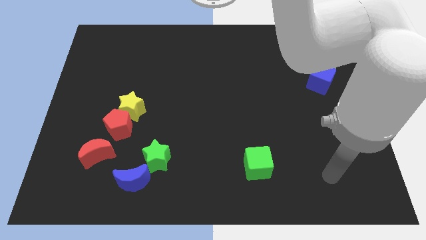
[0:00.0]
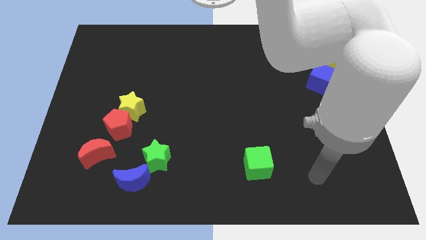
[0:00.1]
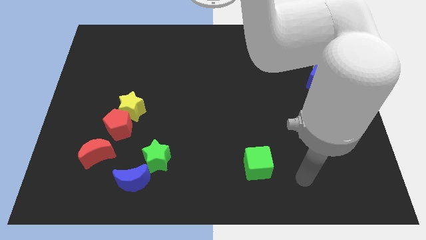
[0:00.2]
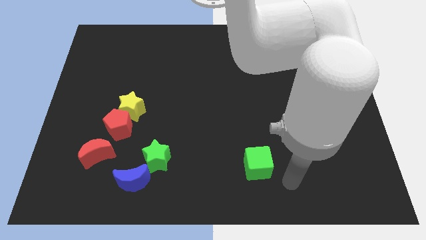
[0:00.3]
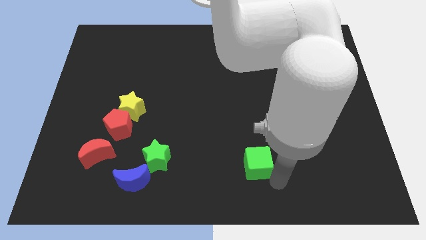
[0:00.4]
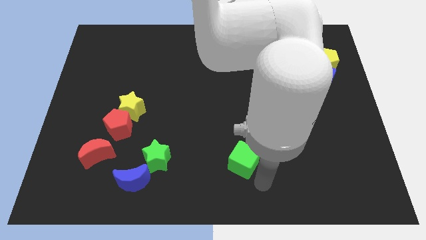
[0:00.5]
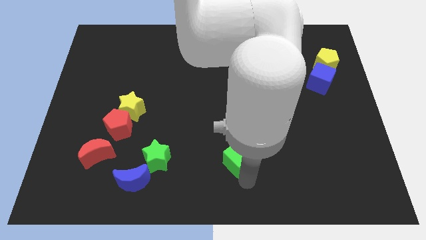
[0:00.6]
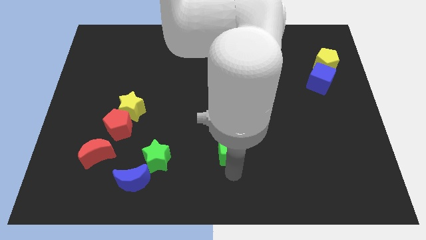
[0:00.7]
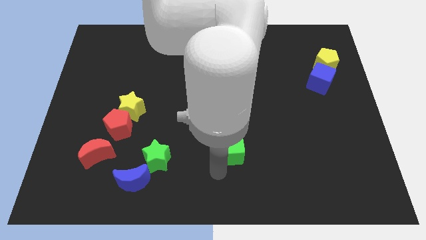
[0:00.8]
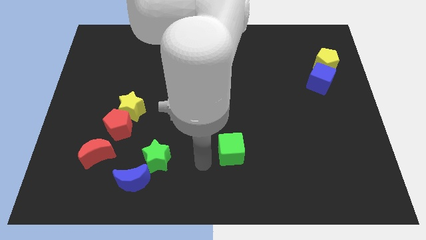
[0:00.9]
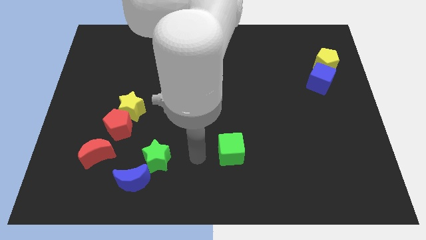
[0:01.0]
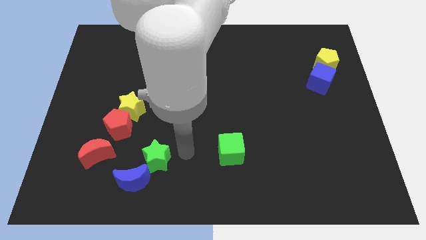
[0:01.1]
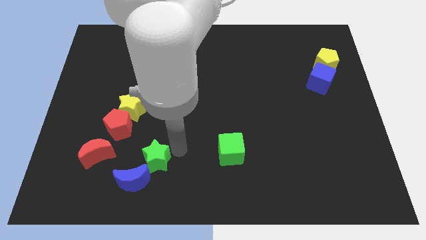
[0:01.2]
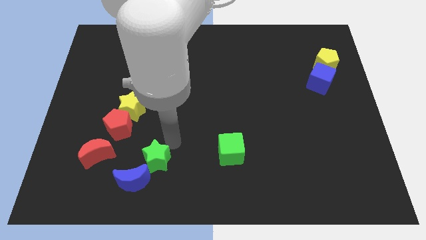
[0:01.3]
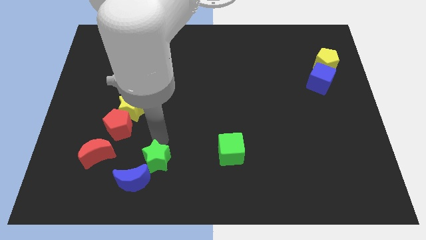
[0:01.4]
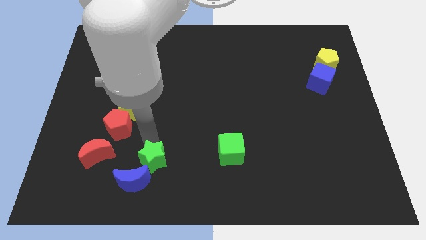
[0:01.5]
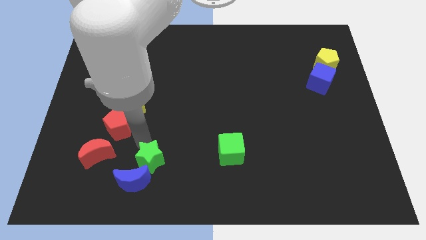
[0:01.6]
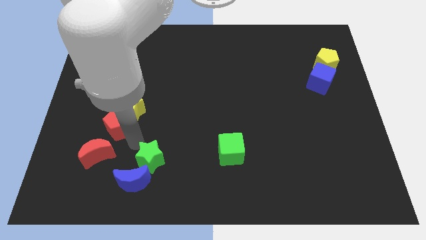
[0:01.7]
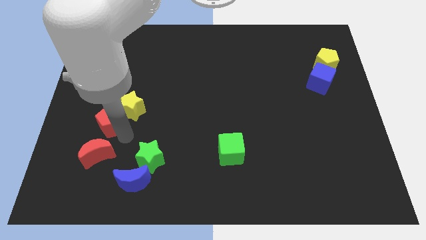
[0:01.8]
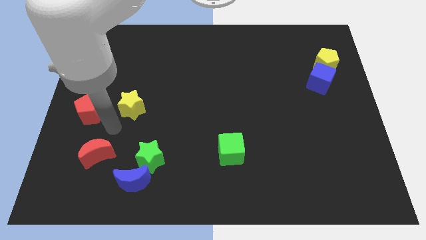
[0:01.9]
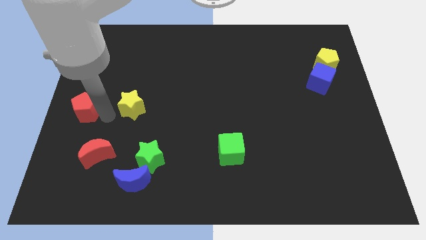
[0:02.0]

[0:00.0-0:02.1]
separate the yellow star from the red pentagon

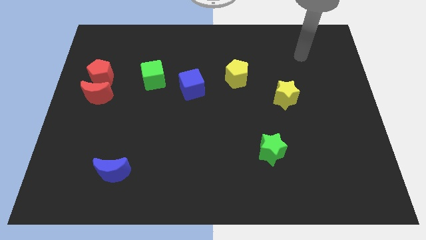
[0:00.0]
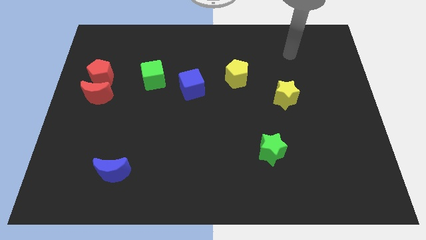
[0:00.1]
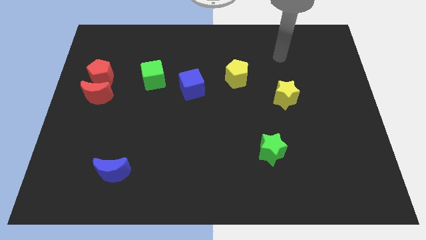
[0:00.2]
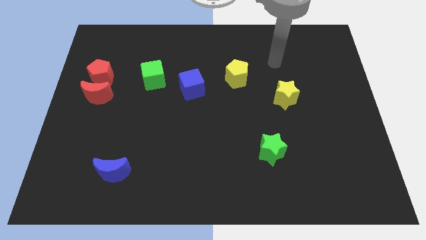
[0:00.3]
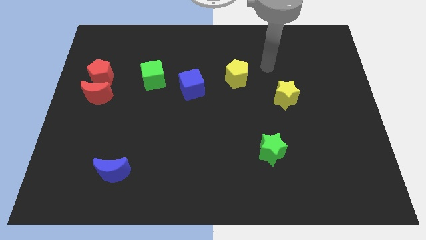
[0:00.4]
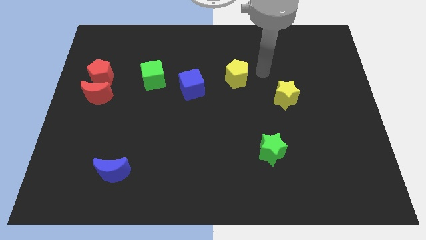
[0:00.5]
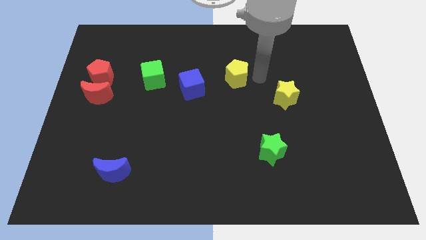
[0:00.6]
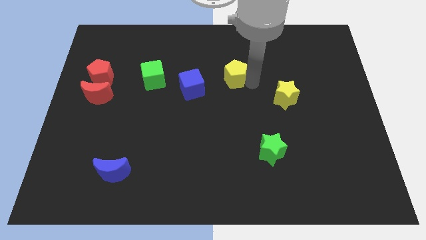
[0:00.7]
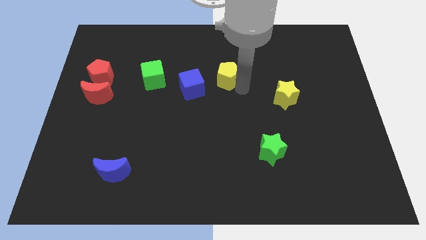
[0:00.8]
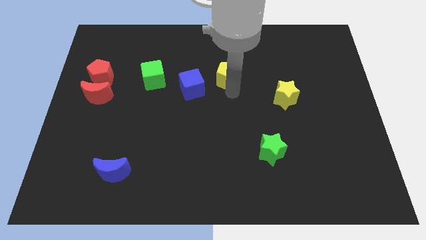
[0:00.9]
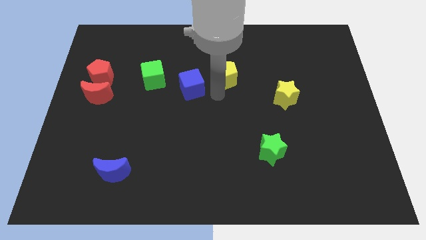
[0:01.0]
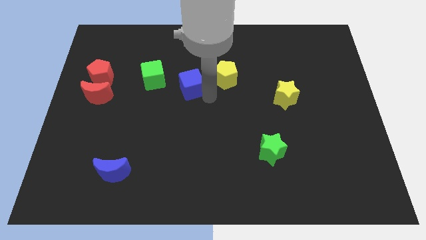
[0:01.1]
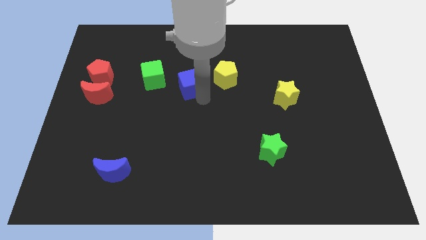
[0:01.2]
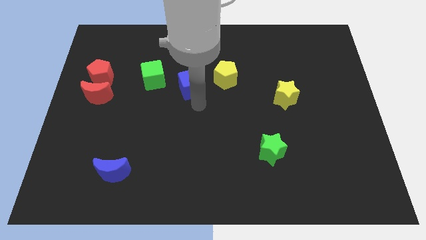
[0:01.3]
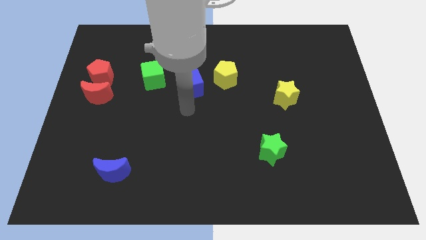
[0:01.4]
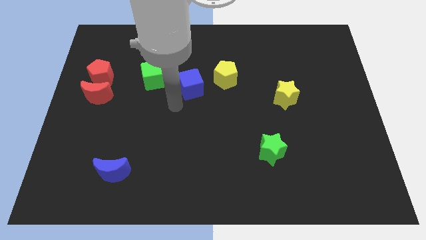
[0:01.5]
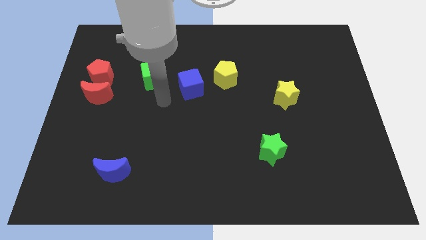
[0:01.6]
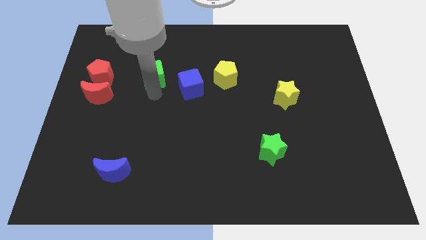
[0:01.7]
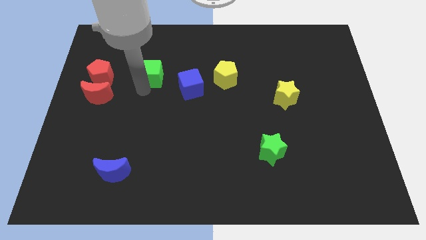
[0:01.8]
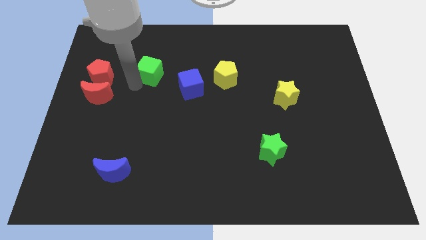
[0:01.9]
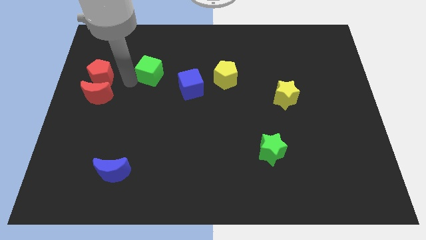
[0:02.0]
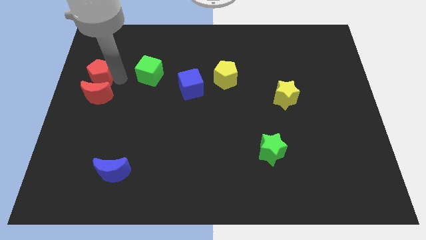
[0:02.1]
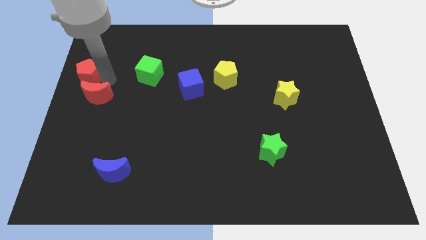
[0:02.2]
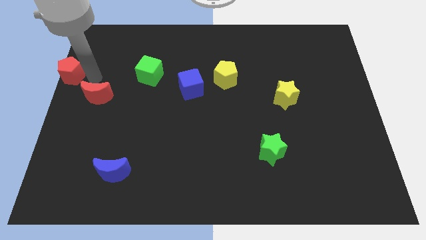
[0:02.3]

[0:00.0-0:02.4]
move the red moon away from the red pentagon

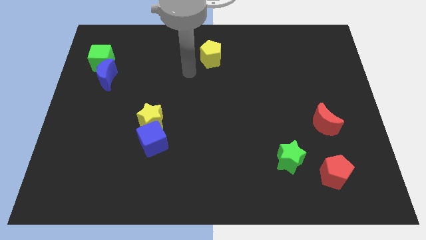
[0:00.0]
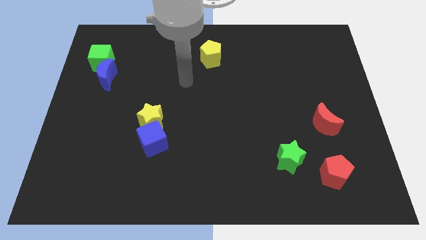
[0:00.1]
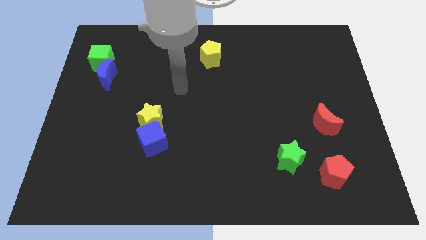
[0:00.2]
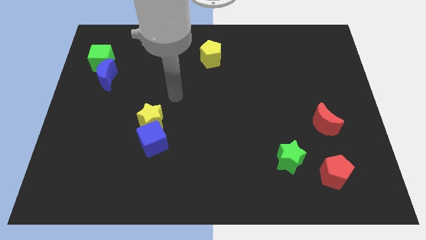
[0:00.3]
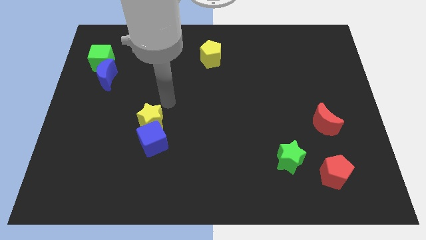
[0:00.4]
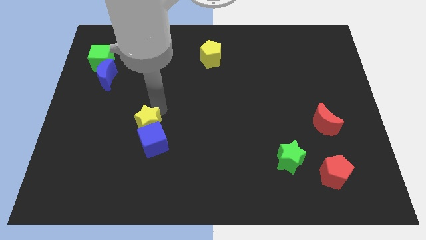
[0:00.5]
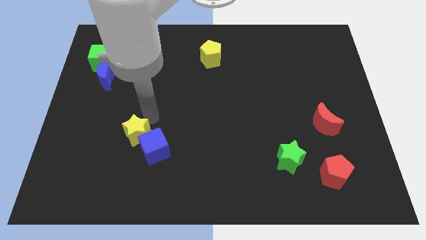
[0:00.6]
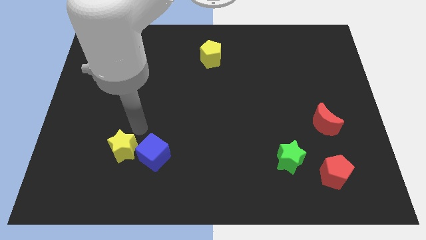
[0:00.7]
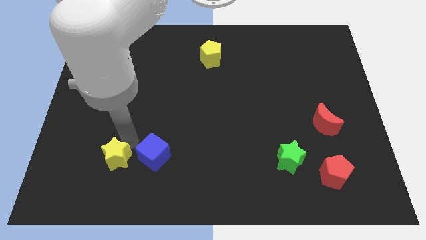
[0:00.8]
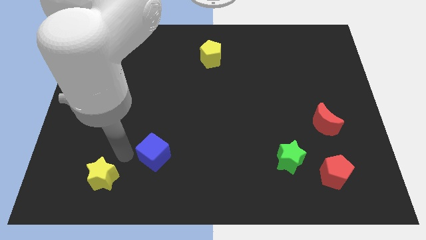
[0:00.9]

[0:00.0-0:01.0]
pull the blue cube apart from the yellow star

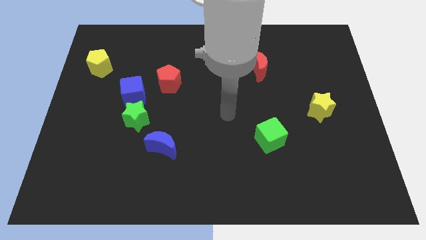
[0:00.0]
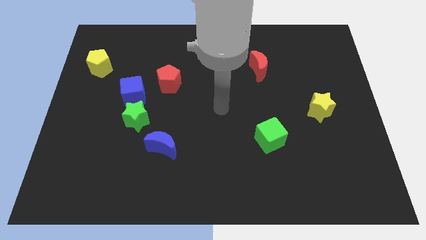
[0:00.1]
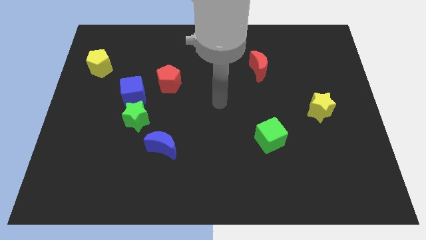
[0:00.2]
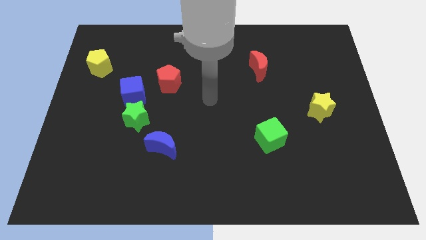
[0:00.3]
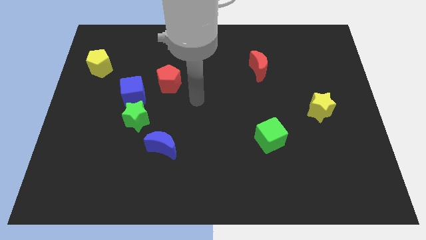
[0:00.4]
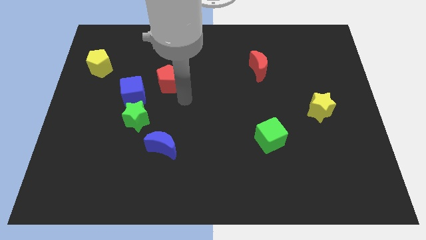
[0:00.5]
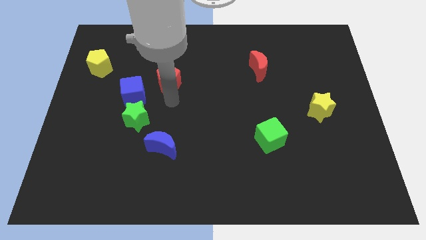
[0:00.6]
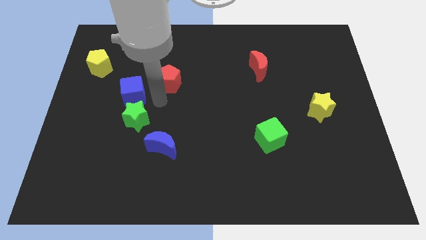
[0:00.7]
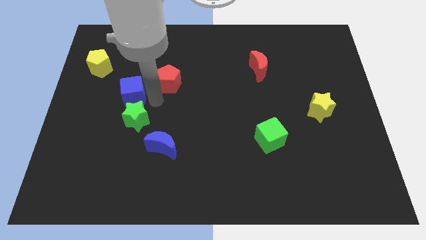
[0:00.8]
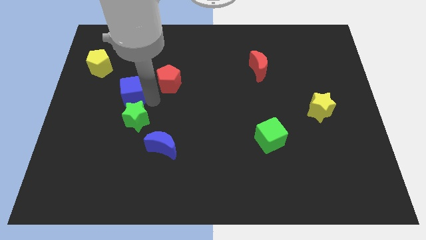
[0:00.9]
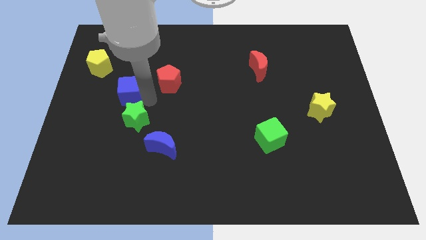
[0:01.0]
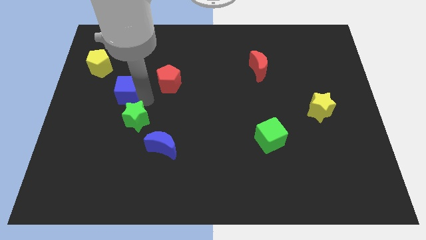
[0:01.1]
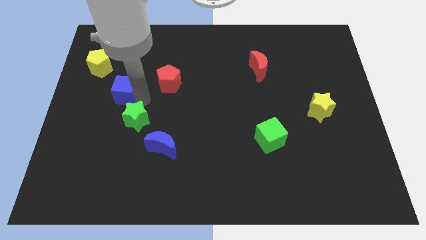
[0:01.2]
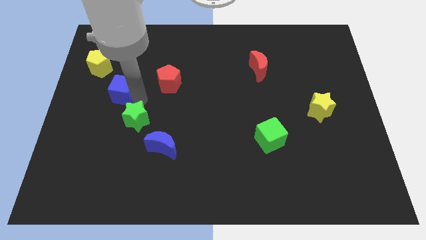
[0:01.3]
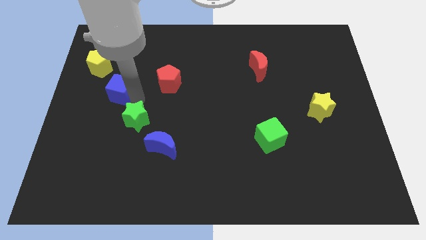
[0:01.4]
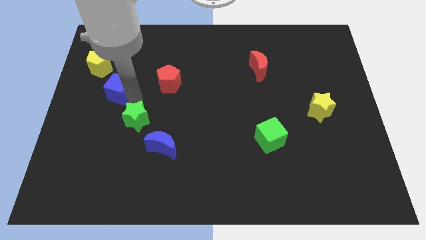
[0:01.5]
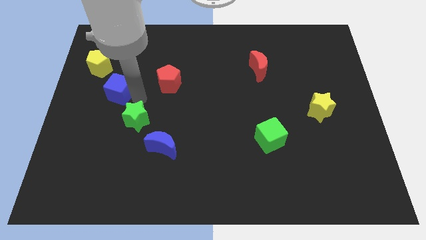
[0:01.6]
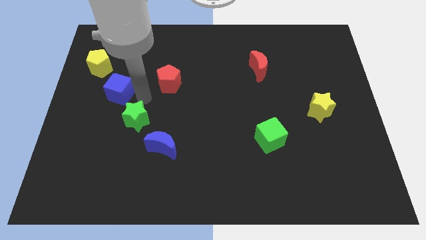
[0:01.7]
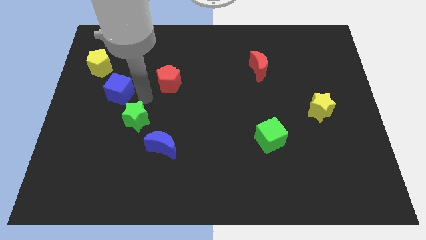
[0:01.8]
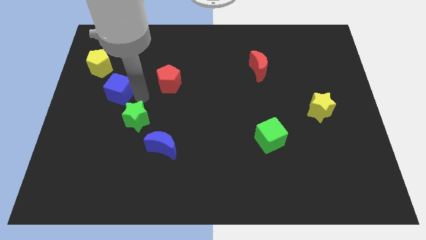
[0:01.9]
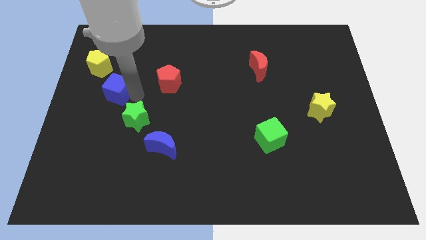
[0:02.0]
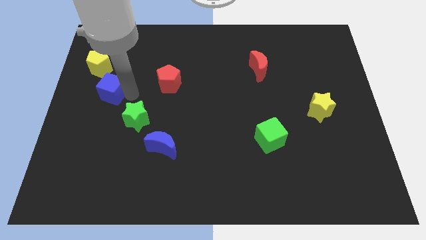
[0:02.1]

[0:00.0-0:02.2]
pull the blue cube apart from the green star and red pentagon

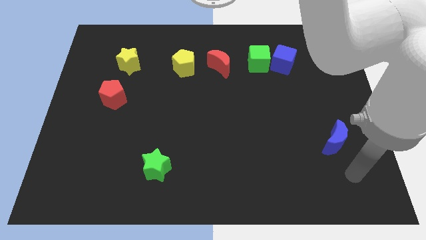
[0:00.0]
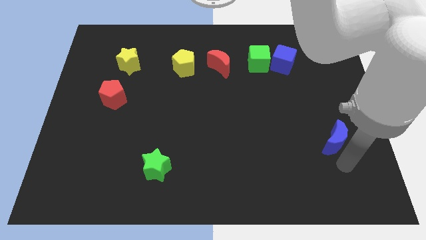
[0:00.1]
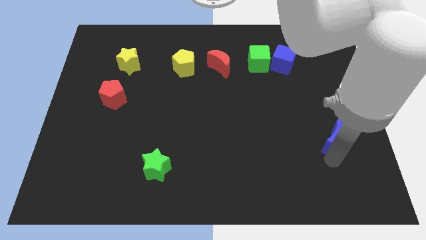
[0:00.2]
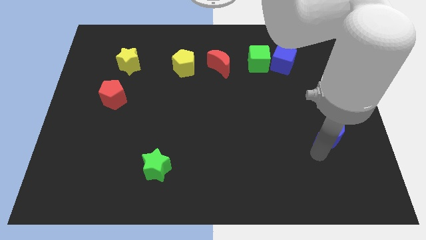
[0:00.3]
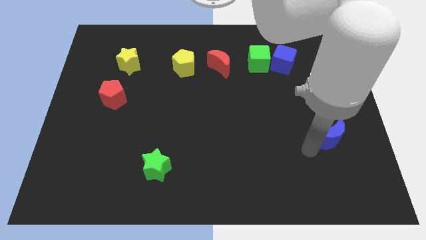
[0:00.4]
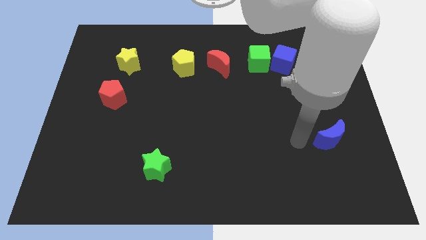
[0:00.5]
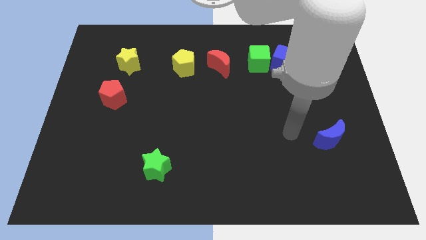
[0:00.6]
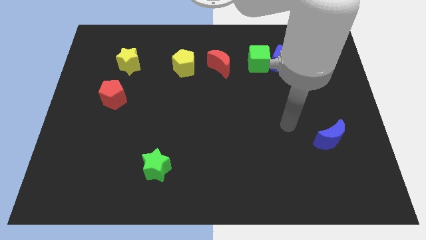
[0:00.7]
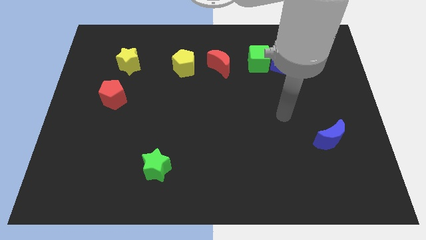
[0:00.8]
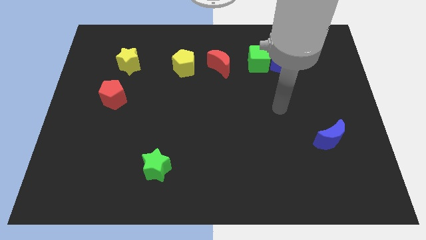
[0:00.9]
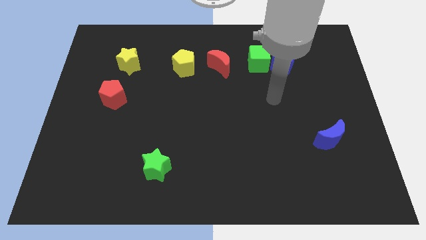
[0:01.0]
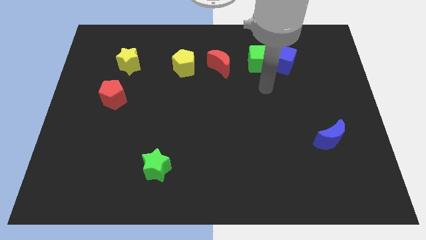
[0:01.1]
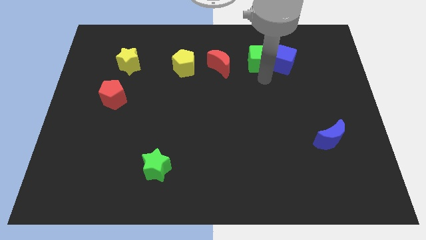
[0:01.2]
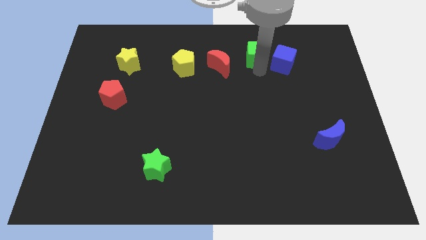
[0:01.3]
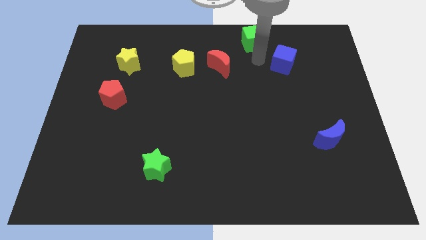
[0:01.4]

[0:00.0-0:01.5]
move the blue cube away from the green cube

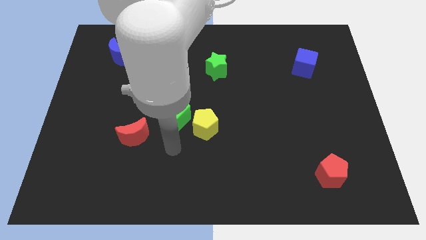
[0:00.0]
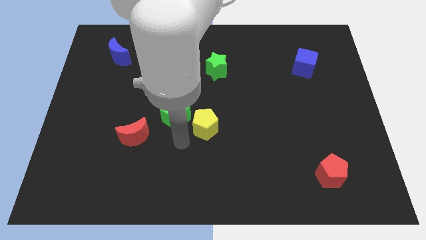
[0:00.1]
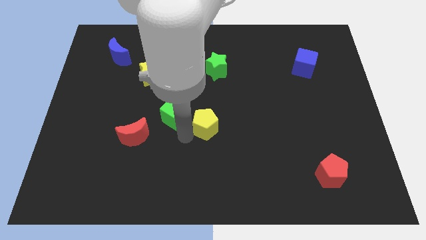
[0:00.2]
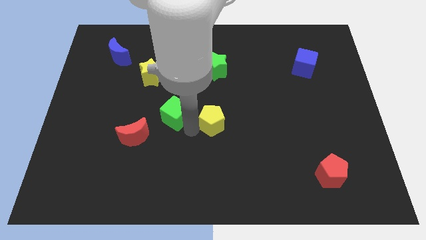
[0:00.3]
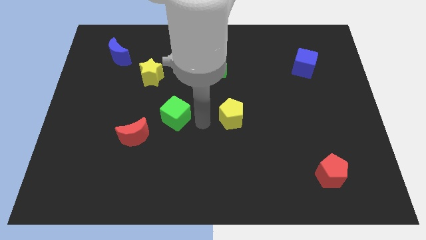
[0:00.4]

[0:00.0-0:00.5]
pull the green cube apart from the yellow pentagon
